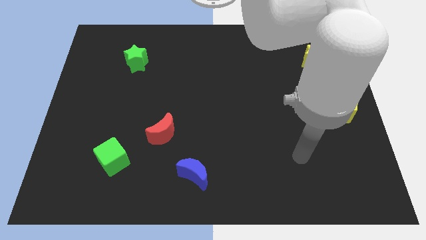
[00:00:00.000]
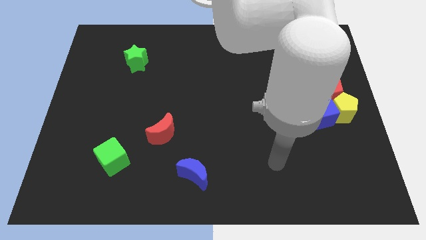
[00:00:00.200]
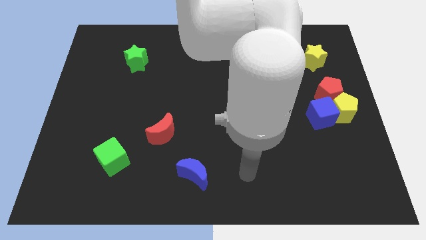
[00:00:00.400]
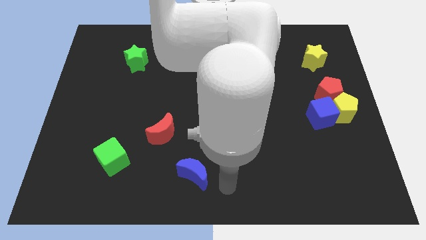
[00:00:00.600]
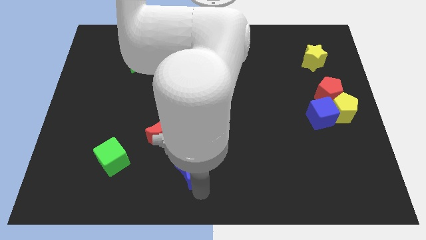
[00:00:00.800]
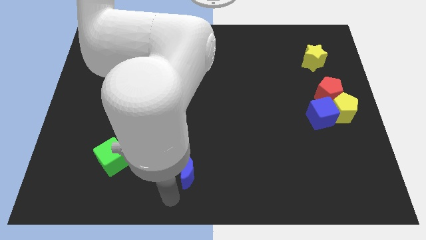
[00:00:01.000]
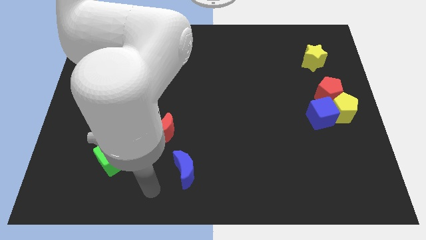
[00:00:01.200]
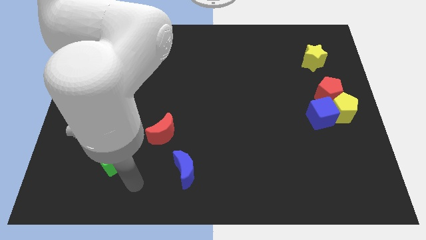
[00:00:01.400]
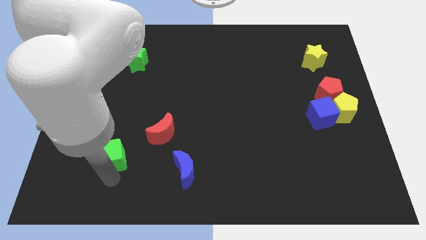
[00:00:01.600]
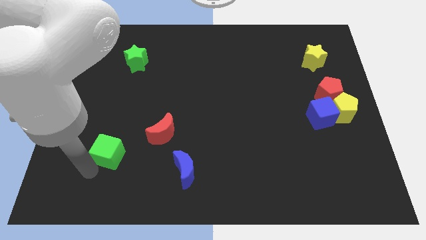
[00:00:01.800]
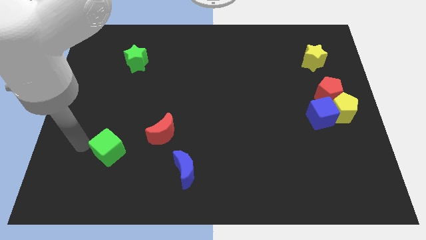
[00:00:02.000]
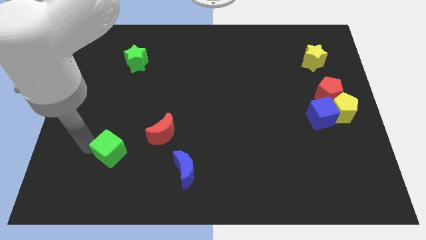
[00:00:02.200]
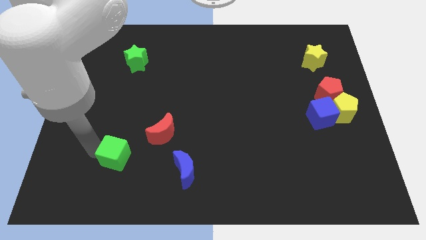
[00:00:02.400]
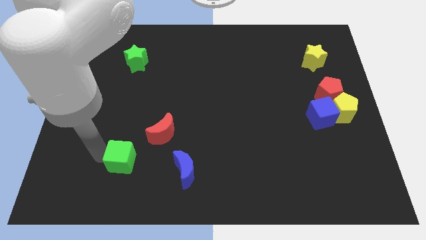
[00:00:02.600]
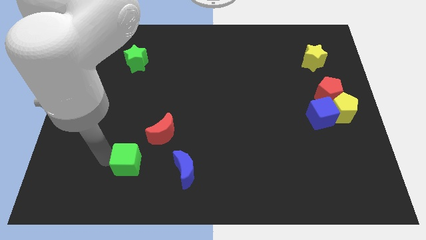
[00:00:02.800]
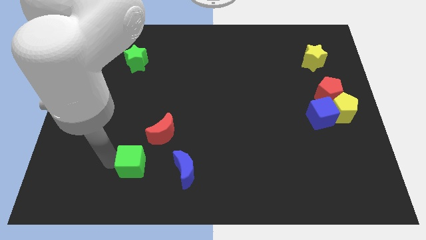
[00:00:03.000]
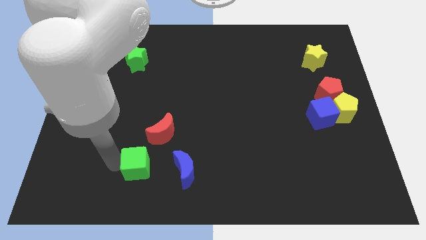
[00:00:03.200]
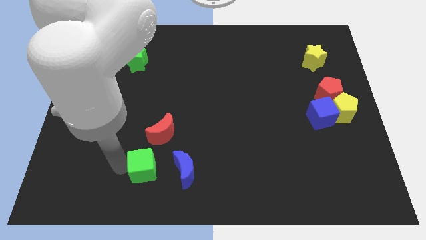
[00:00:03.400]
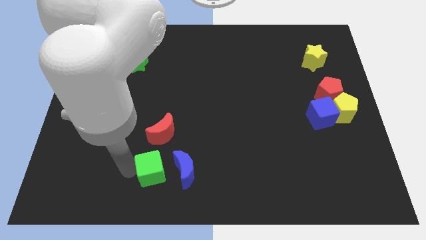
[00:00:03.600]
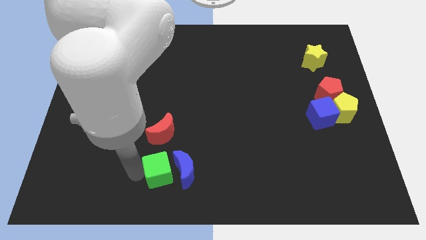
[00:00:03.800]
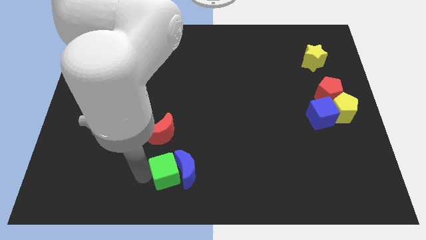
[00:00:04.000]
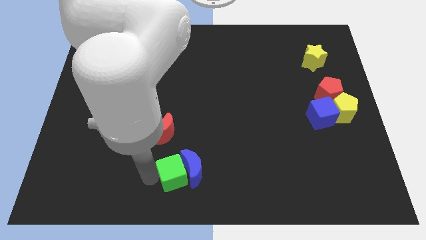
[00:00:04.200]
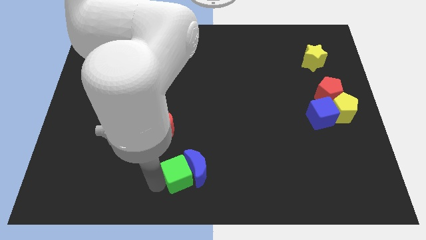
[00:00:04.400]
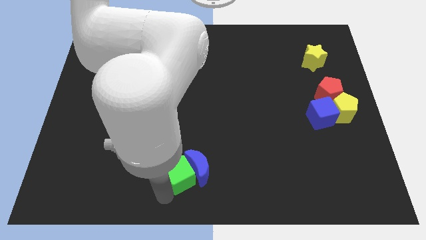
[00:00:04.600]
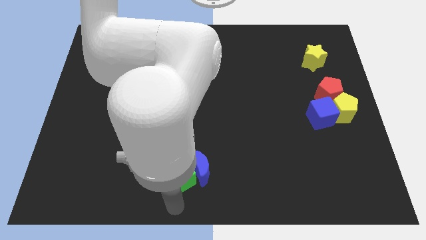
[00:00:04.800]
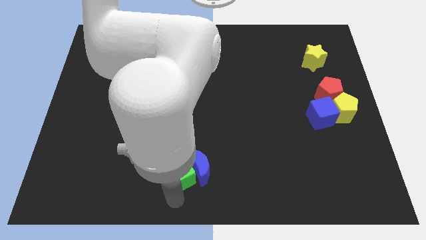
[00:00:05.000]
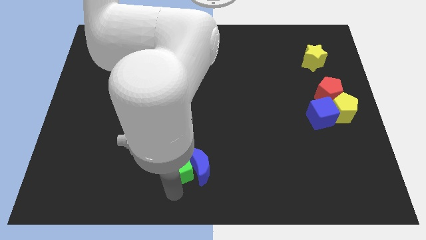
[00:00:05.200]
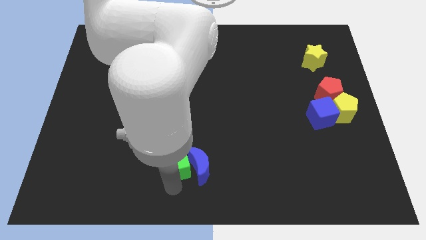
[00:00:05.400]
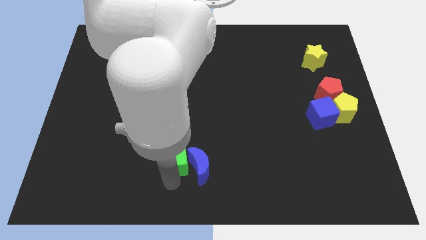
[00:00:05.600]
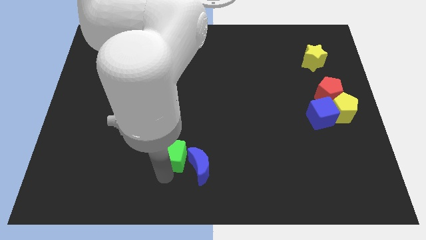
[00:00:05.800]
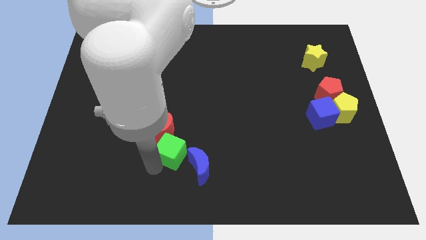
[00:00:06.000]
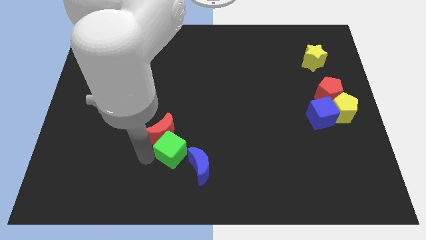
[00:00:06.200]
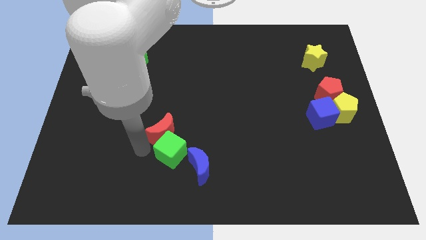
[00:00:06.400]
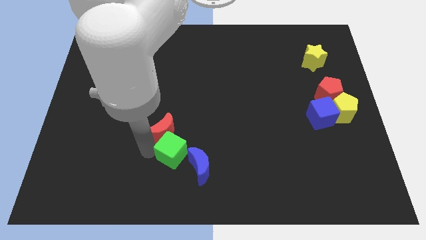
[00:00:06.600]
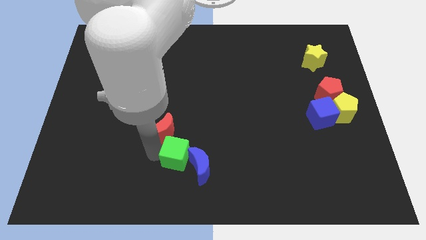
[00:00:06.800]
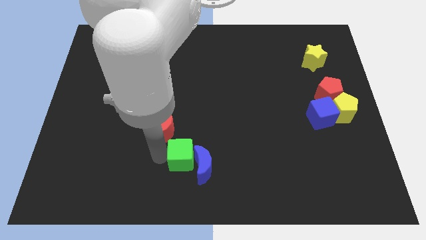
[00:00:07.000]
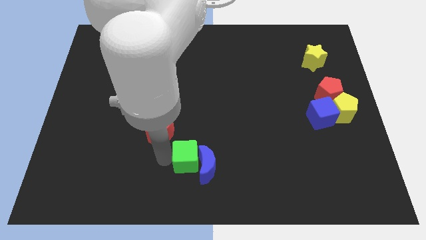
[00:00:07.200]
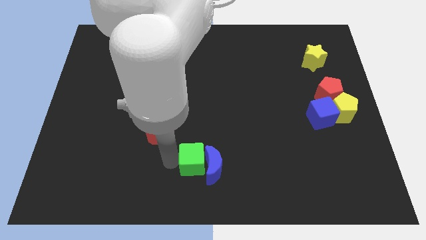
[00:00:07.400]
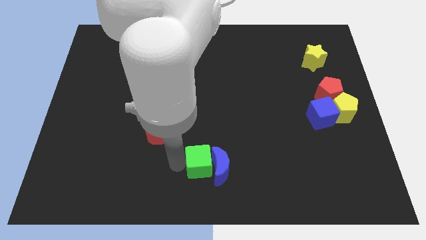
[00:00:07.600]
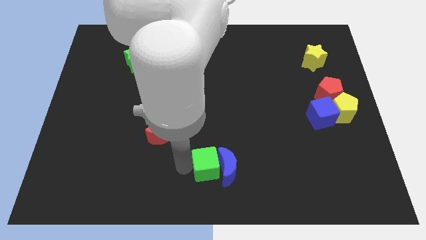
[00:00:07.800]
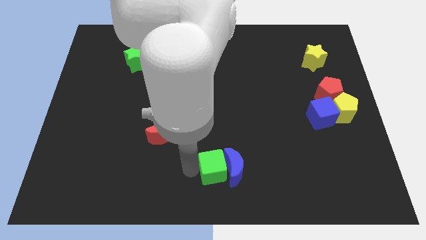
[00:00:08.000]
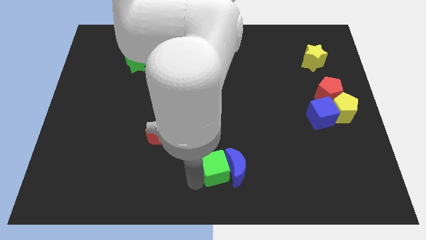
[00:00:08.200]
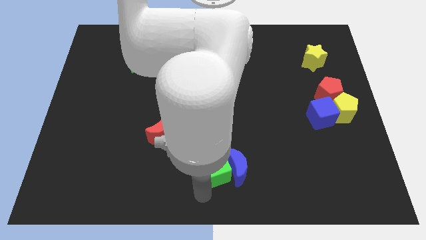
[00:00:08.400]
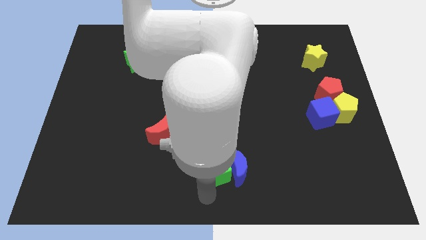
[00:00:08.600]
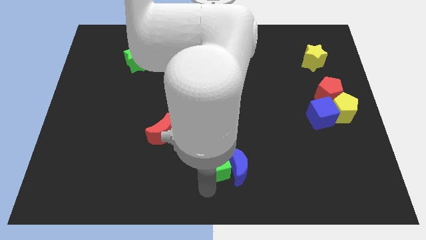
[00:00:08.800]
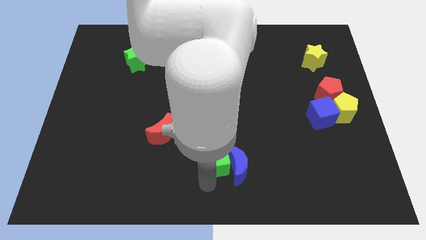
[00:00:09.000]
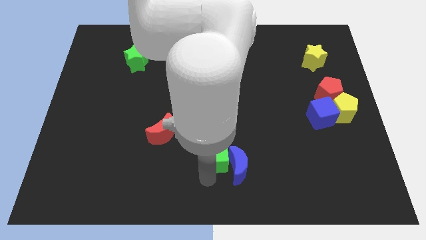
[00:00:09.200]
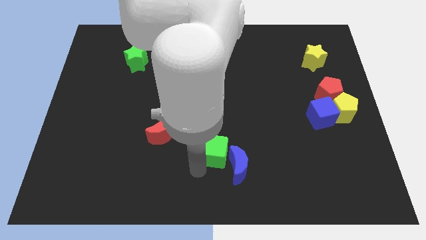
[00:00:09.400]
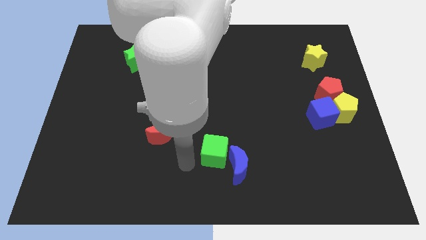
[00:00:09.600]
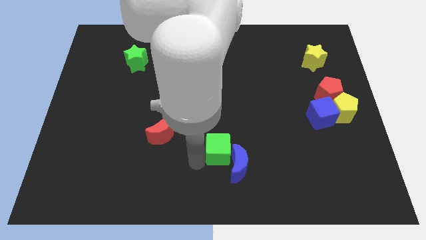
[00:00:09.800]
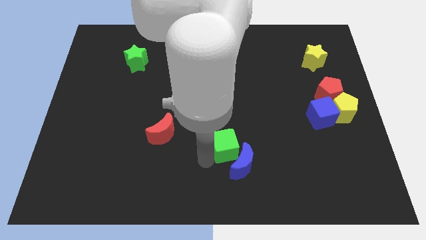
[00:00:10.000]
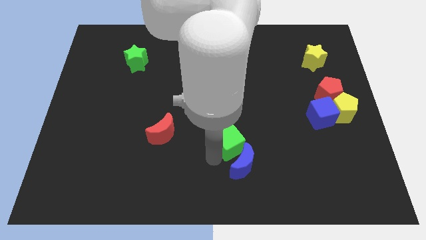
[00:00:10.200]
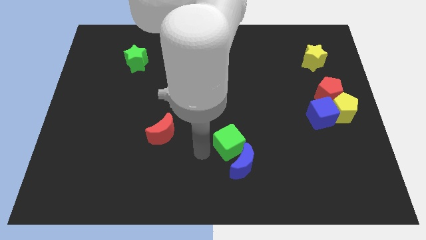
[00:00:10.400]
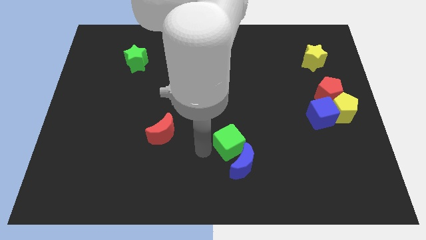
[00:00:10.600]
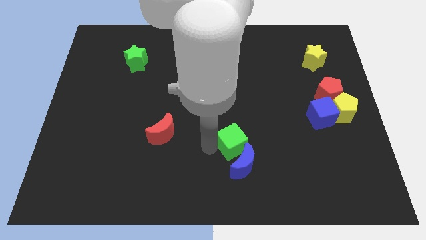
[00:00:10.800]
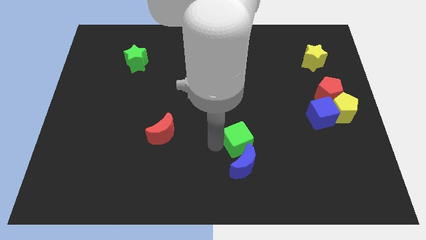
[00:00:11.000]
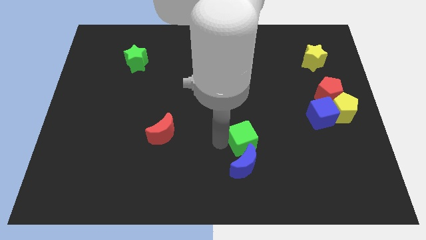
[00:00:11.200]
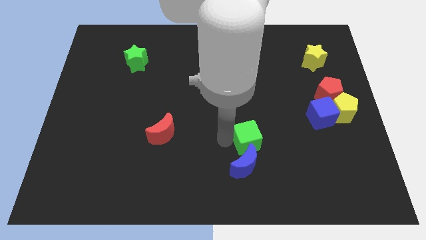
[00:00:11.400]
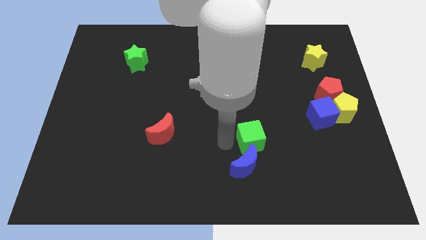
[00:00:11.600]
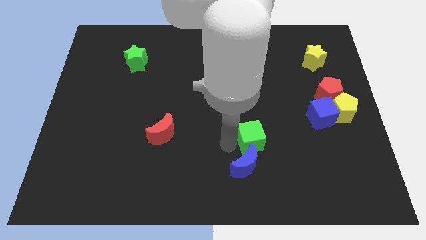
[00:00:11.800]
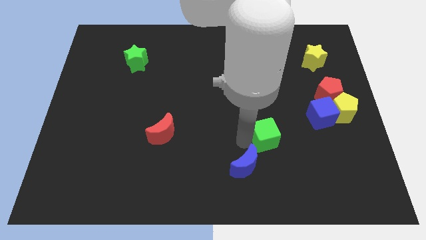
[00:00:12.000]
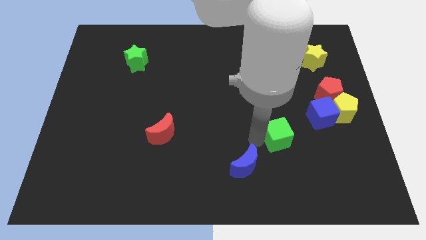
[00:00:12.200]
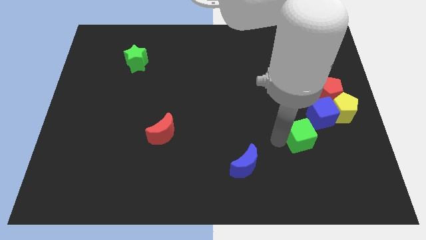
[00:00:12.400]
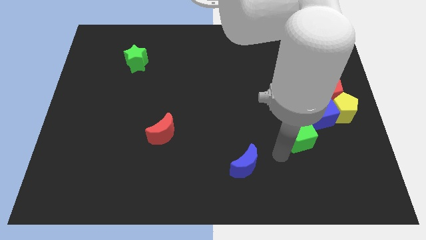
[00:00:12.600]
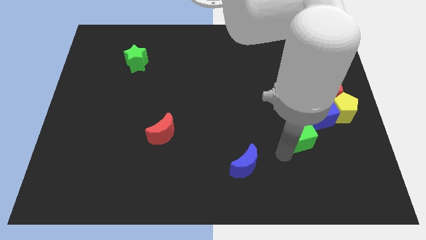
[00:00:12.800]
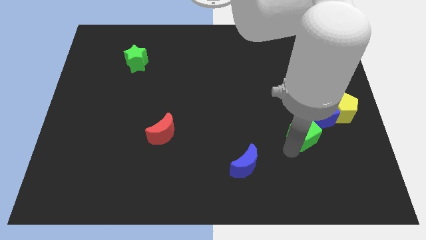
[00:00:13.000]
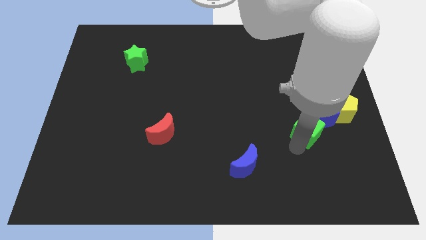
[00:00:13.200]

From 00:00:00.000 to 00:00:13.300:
put the green cube to the blue cube

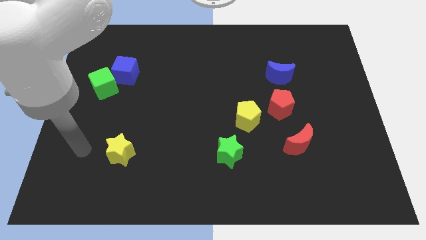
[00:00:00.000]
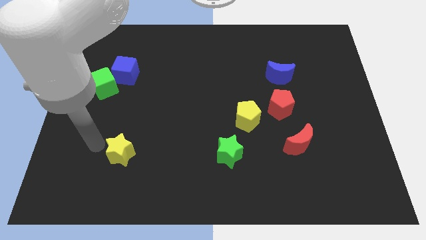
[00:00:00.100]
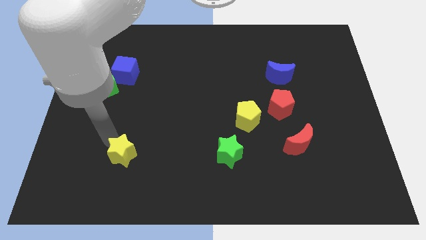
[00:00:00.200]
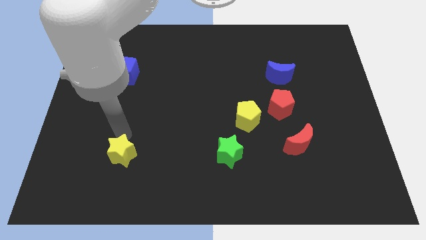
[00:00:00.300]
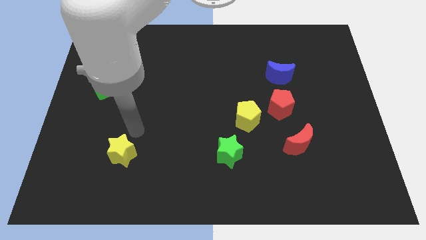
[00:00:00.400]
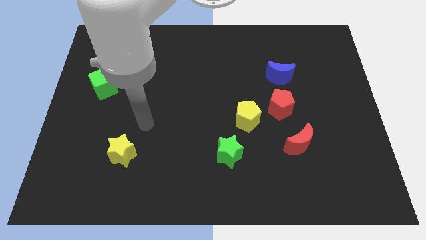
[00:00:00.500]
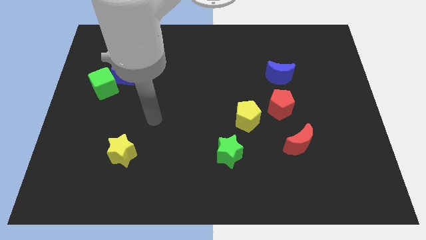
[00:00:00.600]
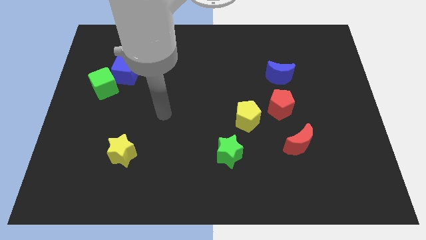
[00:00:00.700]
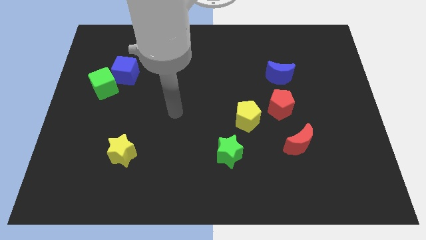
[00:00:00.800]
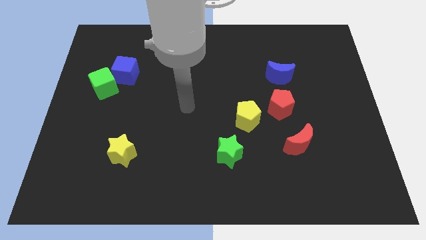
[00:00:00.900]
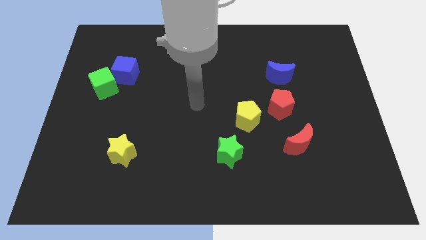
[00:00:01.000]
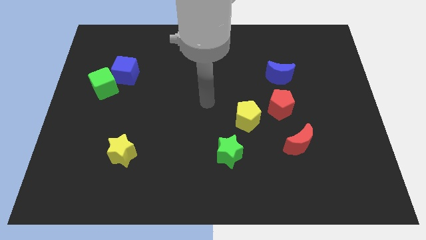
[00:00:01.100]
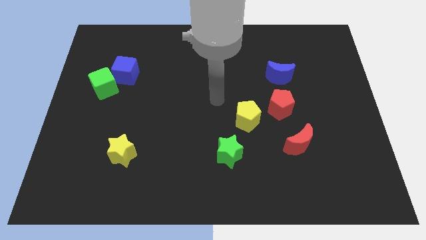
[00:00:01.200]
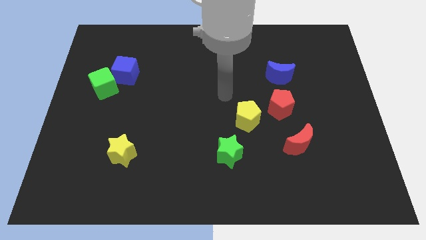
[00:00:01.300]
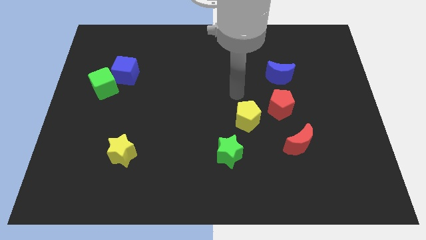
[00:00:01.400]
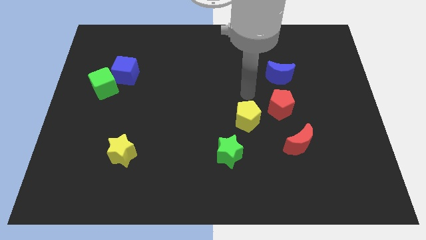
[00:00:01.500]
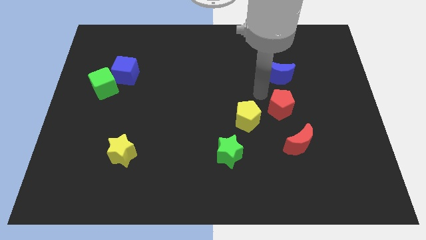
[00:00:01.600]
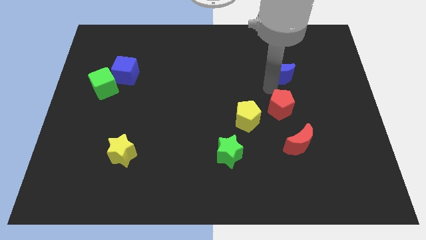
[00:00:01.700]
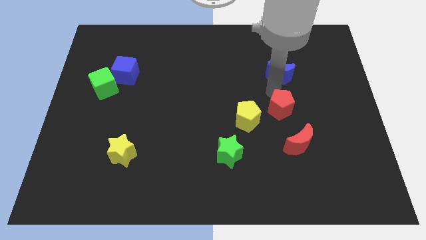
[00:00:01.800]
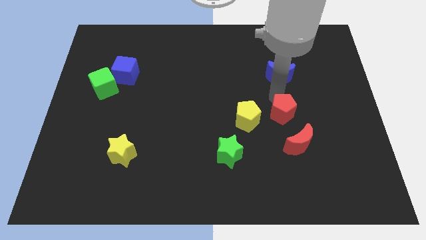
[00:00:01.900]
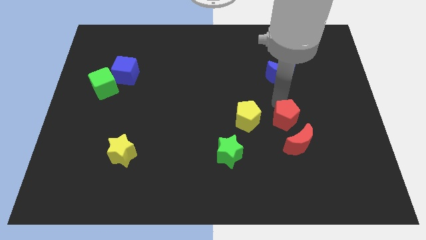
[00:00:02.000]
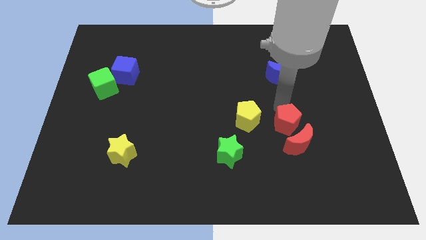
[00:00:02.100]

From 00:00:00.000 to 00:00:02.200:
push the red pentagon close to the red moon
